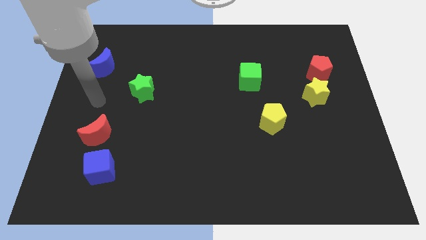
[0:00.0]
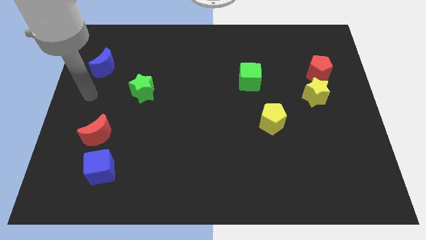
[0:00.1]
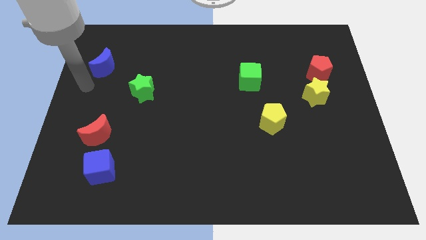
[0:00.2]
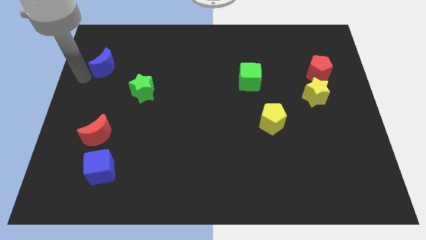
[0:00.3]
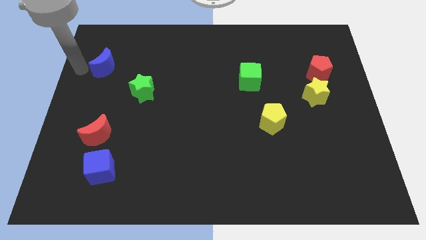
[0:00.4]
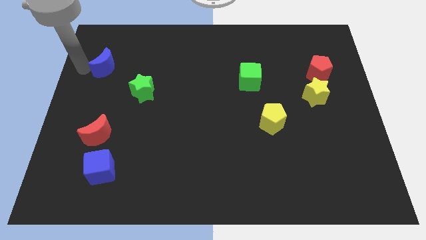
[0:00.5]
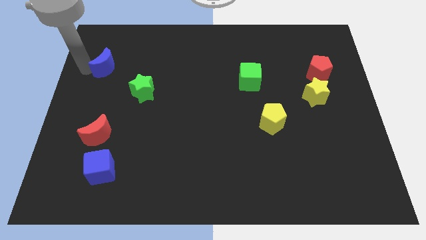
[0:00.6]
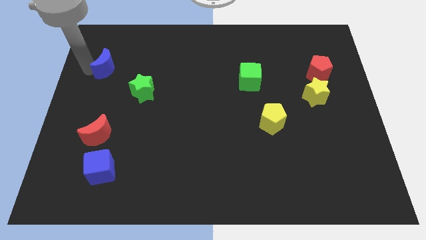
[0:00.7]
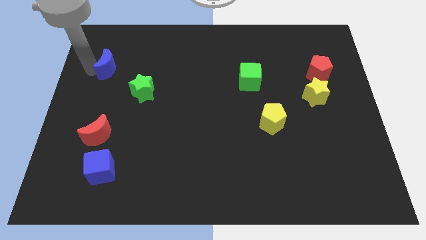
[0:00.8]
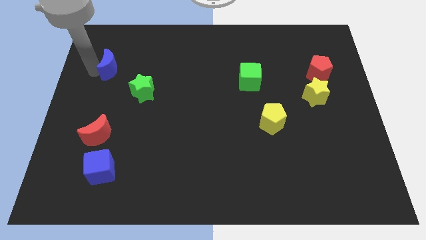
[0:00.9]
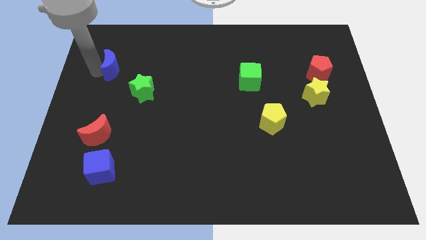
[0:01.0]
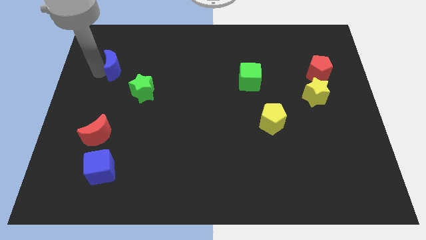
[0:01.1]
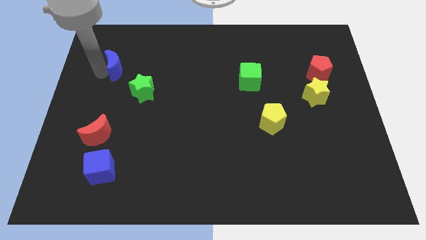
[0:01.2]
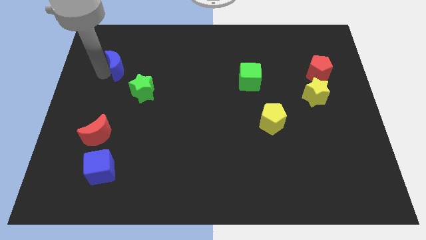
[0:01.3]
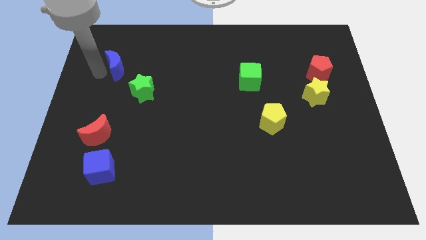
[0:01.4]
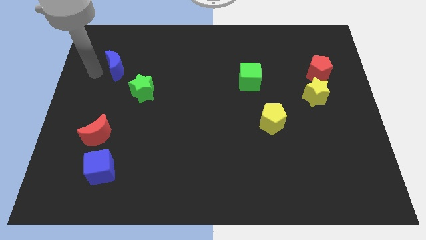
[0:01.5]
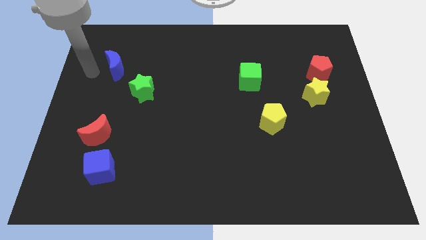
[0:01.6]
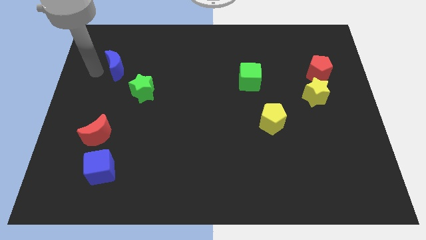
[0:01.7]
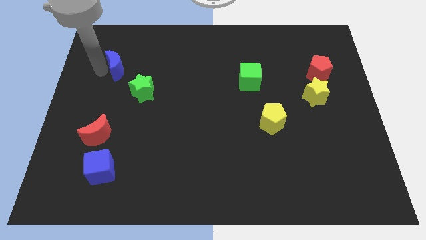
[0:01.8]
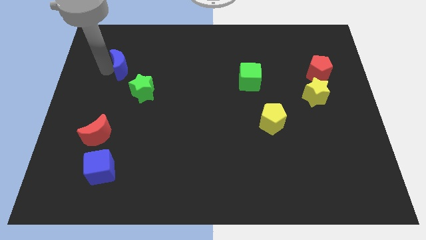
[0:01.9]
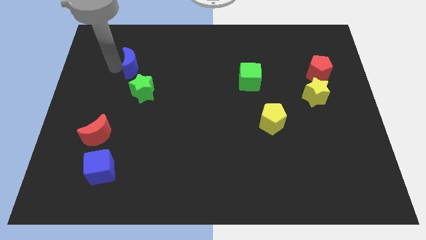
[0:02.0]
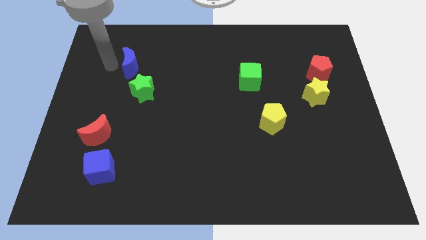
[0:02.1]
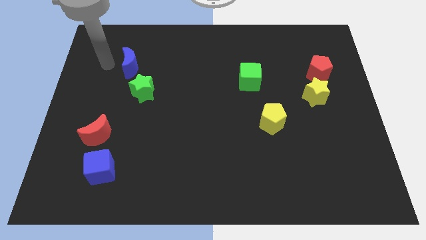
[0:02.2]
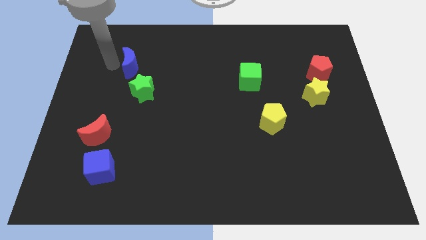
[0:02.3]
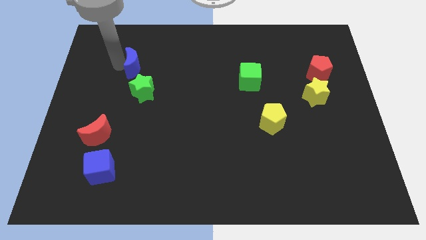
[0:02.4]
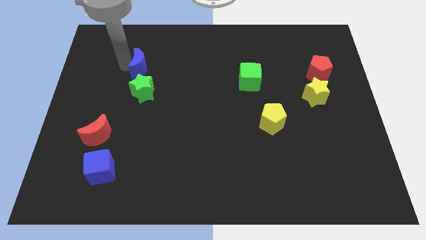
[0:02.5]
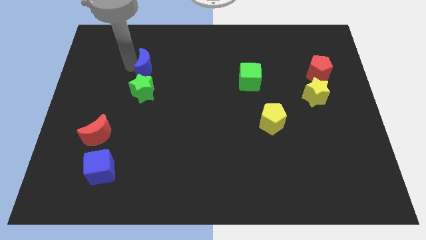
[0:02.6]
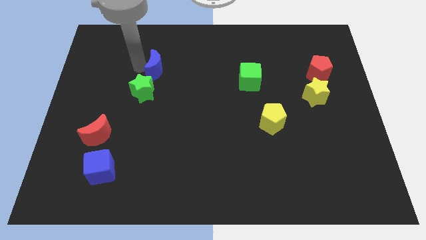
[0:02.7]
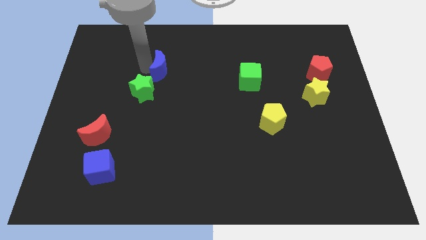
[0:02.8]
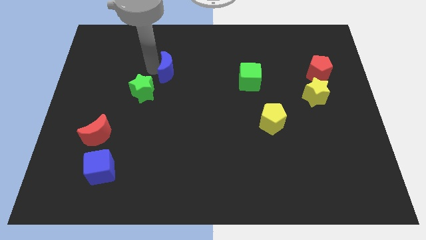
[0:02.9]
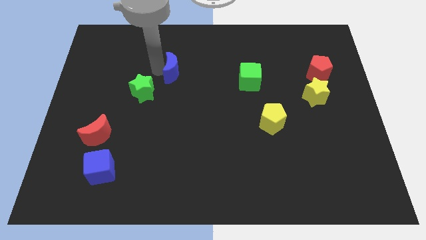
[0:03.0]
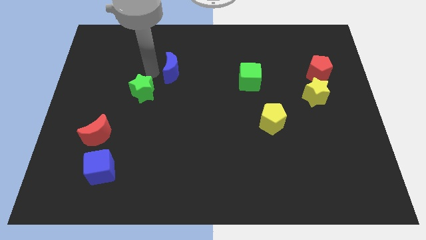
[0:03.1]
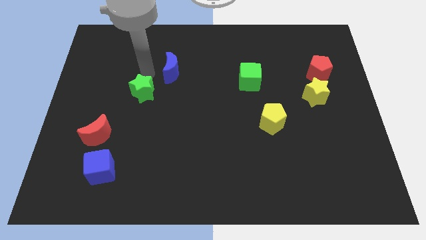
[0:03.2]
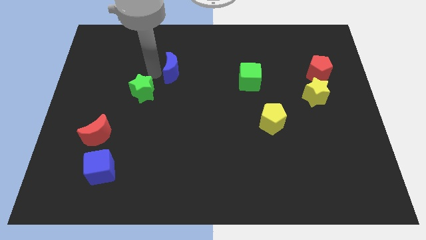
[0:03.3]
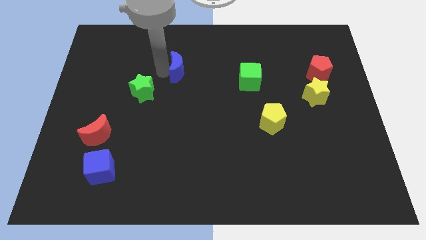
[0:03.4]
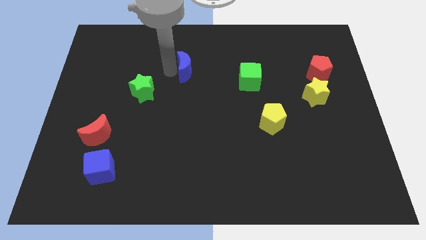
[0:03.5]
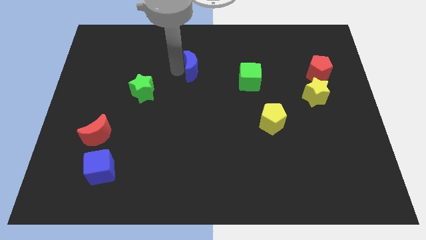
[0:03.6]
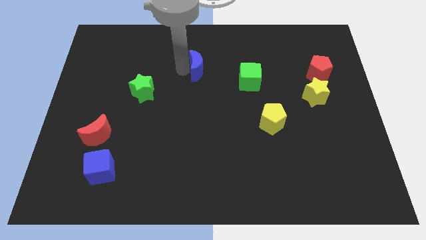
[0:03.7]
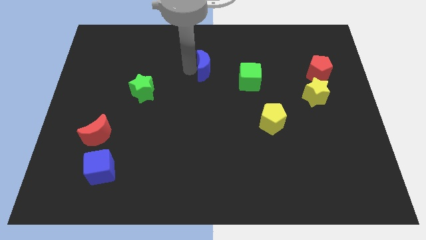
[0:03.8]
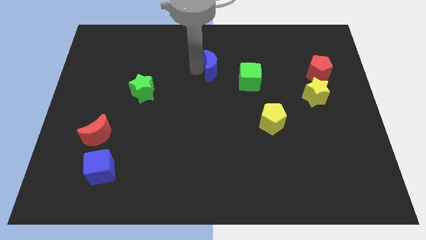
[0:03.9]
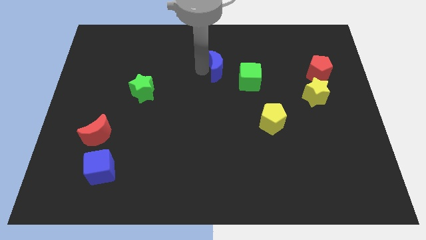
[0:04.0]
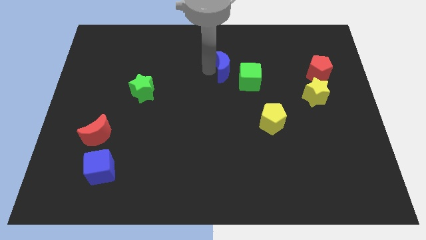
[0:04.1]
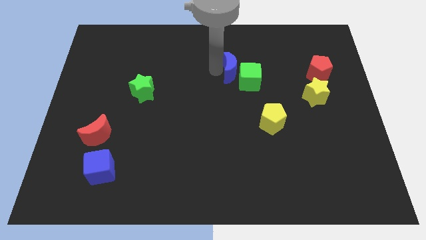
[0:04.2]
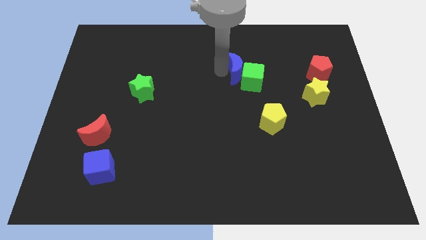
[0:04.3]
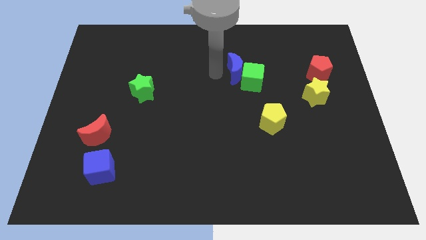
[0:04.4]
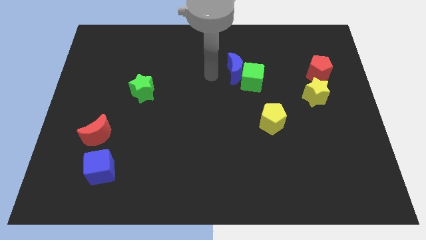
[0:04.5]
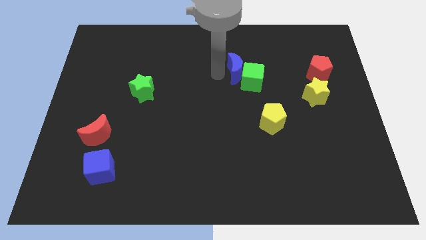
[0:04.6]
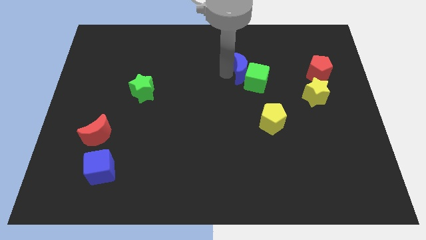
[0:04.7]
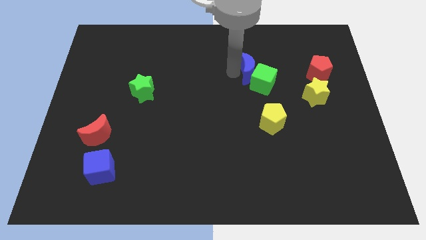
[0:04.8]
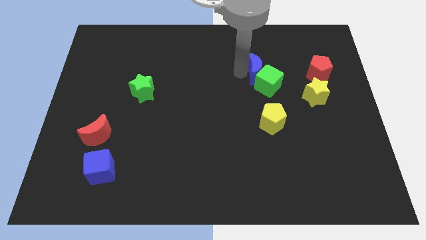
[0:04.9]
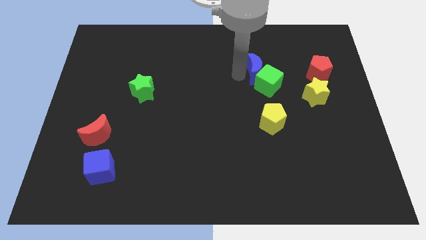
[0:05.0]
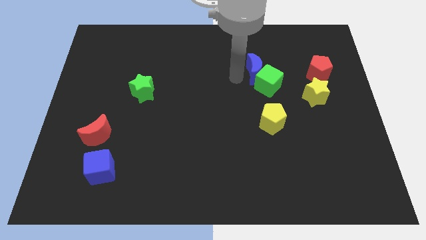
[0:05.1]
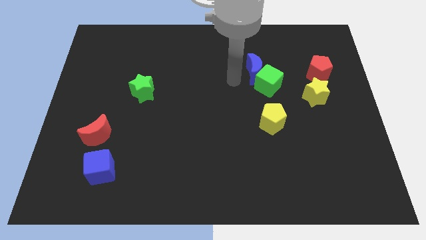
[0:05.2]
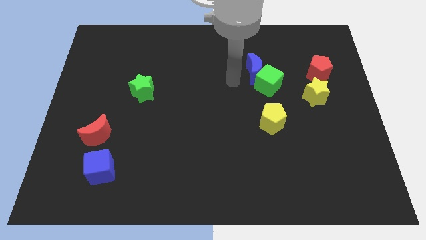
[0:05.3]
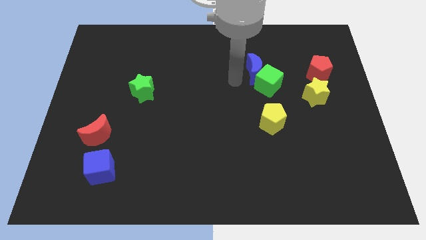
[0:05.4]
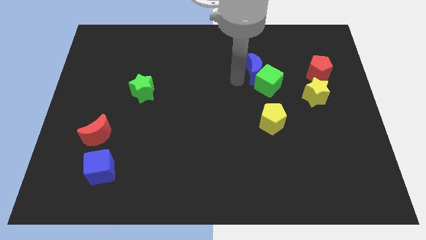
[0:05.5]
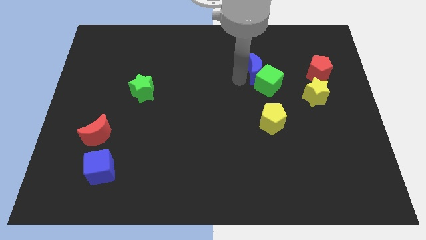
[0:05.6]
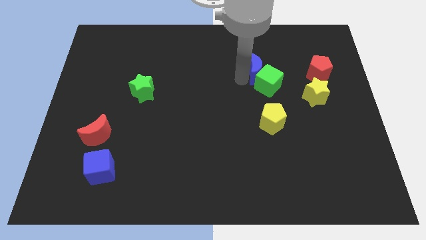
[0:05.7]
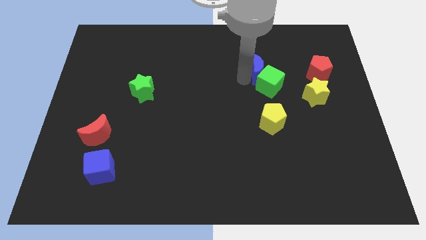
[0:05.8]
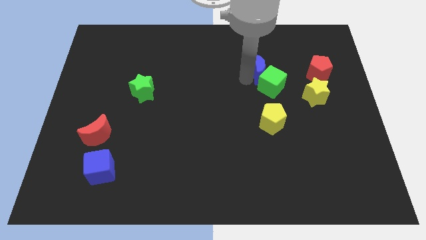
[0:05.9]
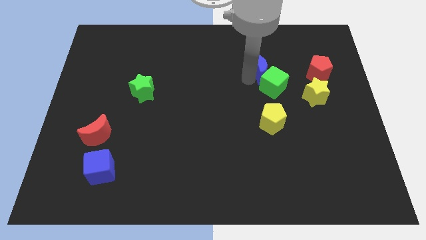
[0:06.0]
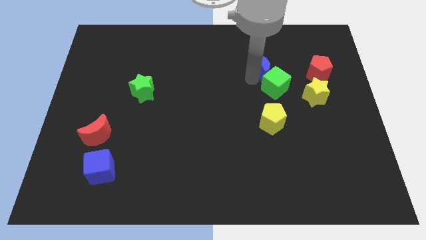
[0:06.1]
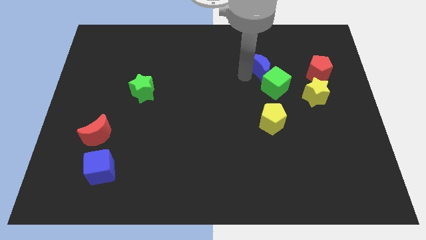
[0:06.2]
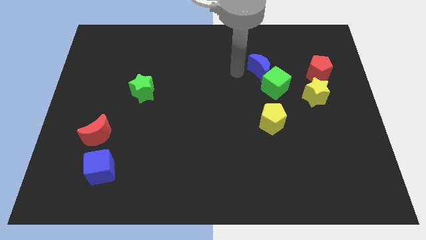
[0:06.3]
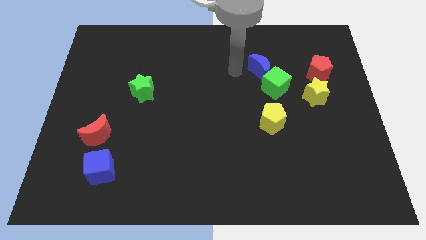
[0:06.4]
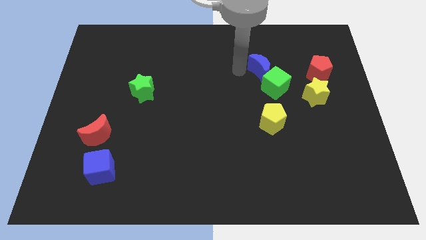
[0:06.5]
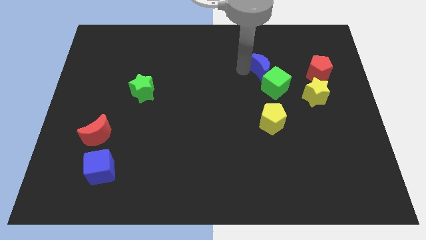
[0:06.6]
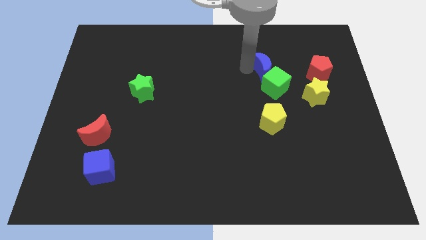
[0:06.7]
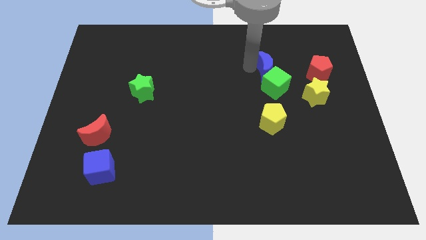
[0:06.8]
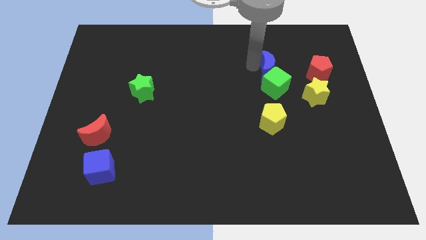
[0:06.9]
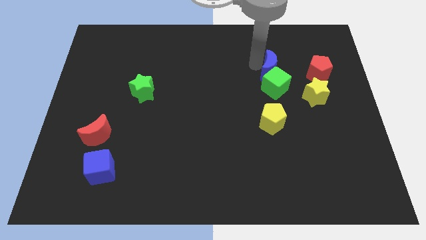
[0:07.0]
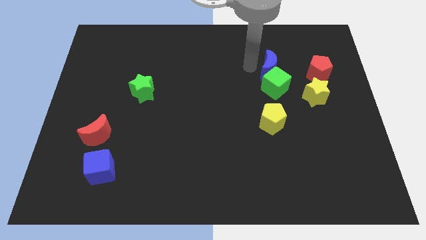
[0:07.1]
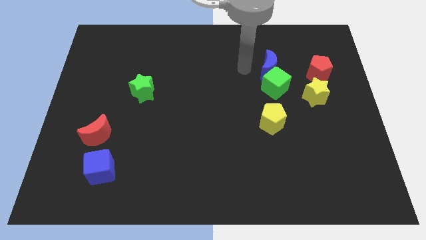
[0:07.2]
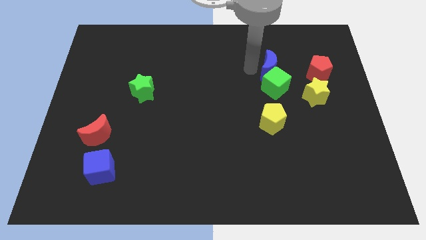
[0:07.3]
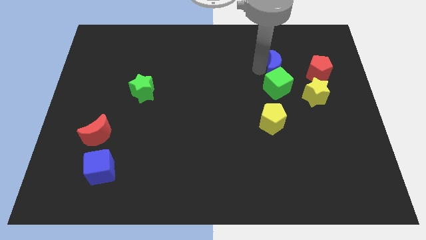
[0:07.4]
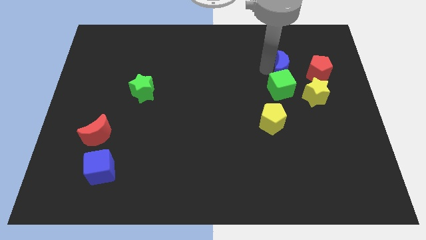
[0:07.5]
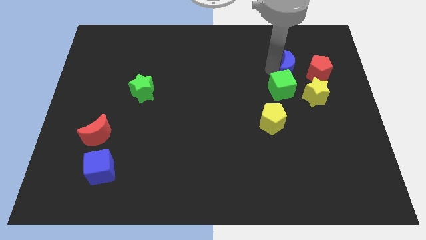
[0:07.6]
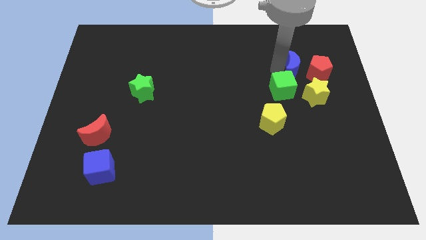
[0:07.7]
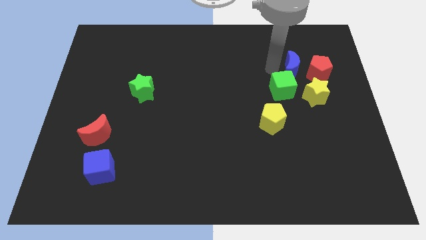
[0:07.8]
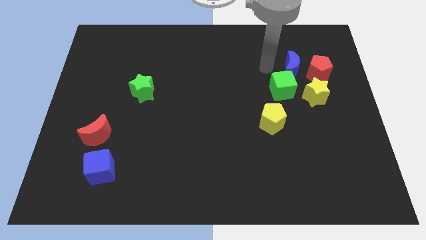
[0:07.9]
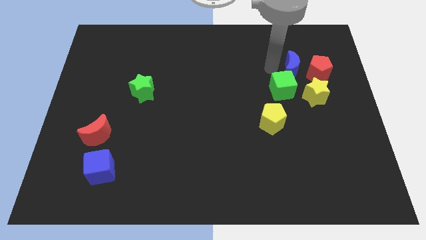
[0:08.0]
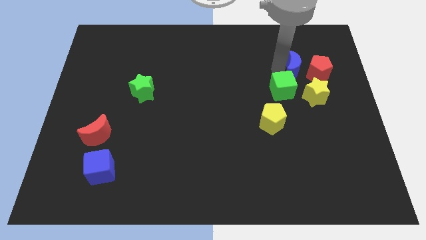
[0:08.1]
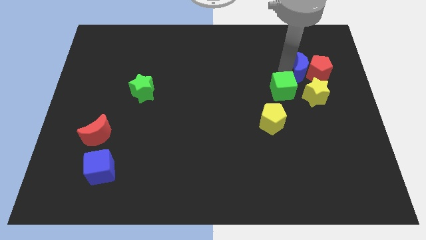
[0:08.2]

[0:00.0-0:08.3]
put the blue moon to the red pentagon
